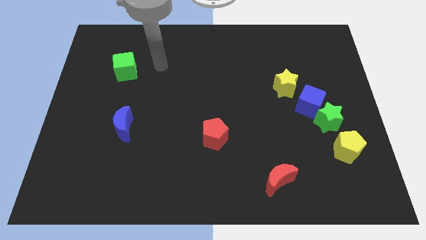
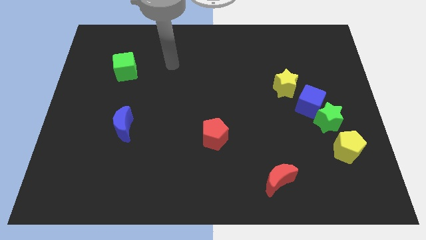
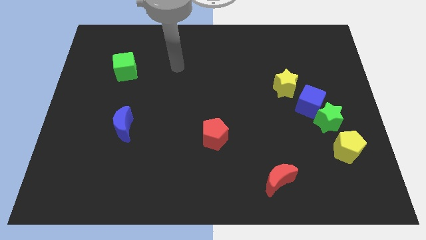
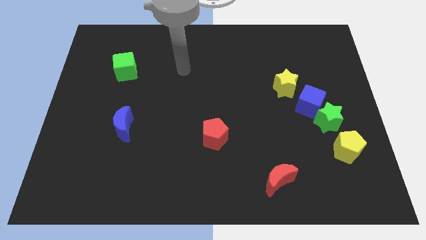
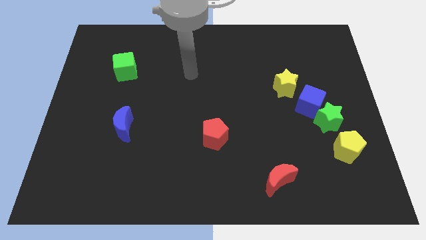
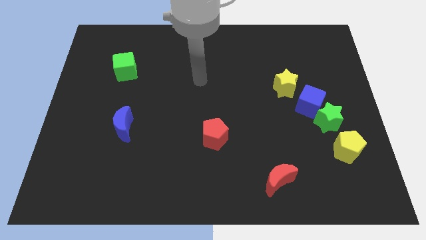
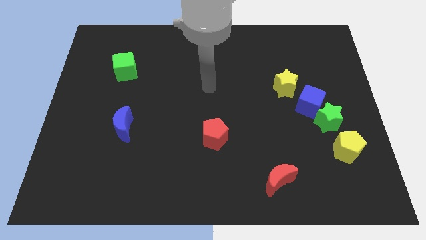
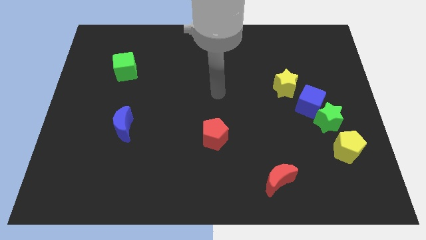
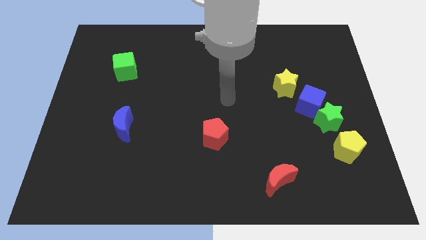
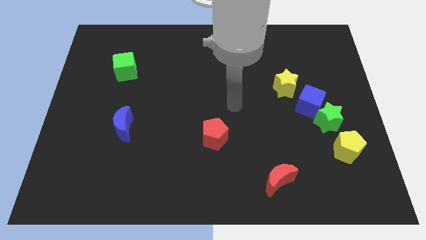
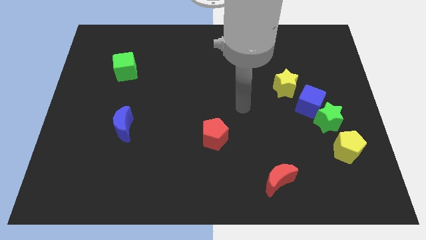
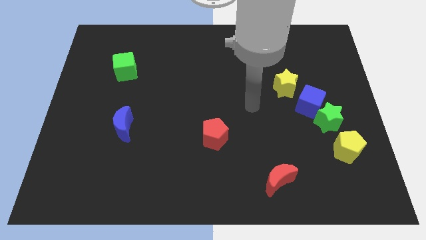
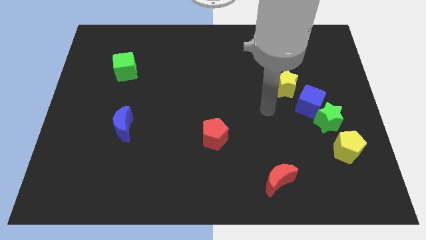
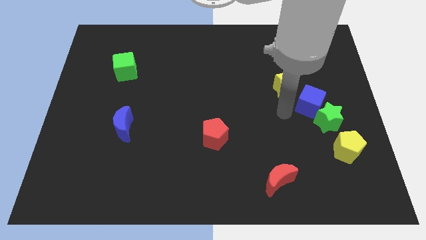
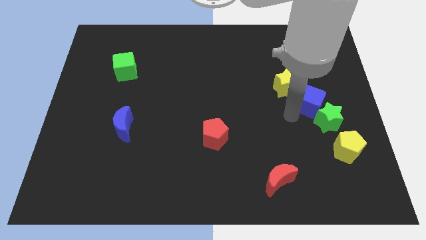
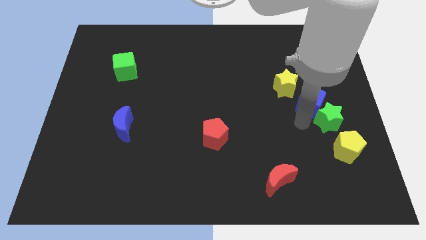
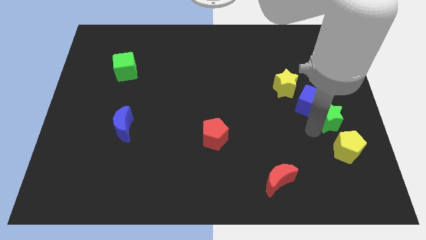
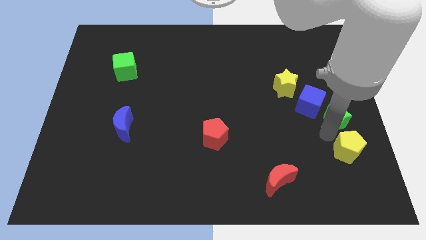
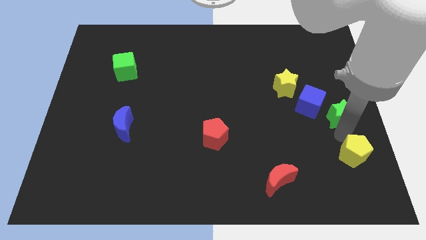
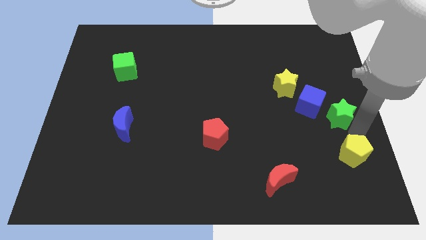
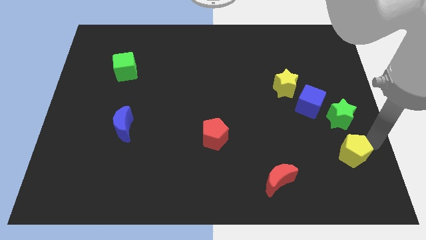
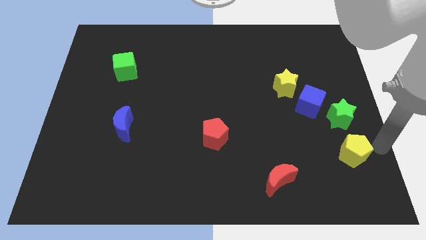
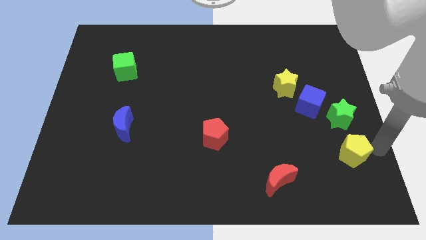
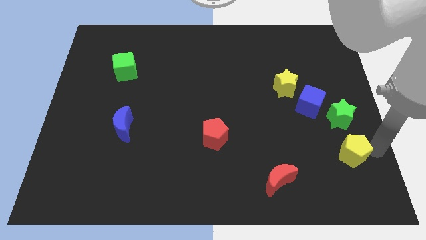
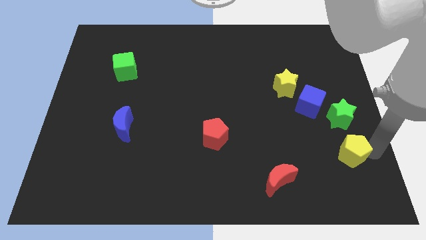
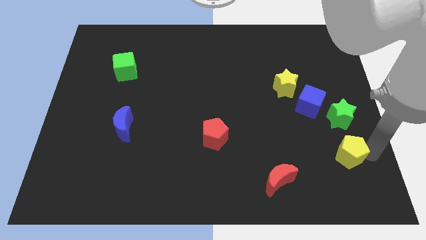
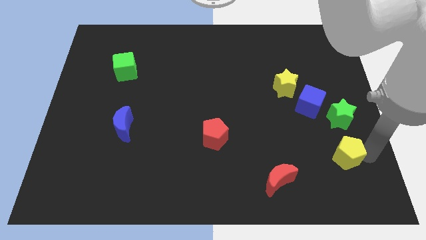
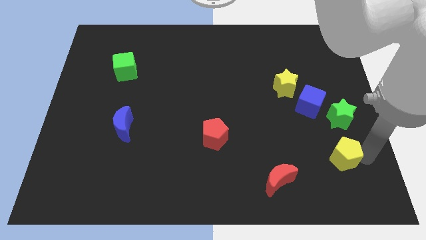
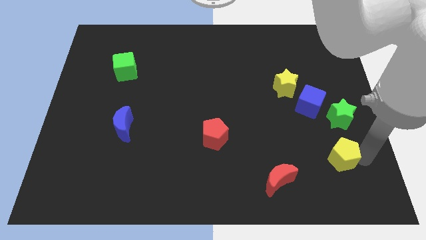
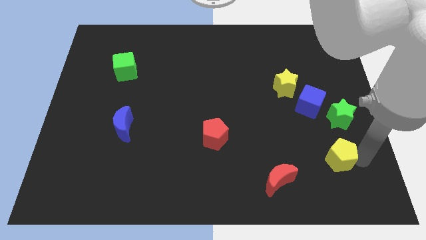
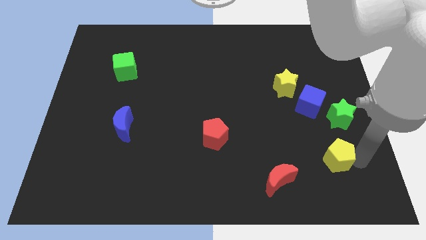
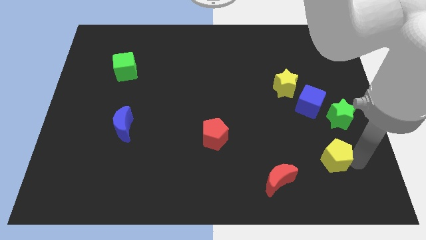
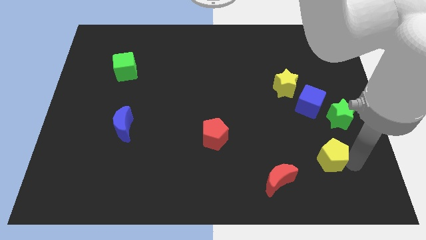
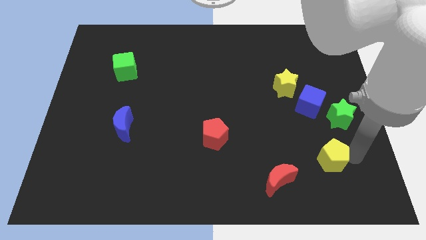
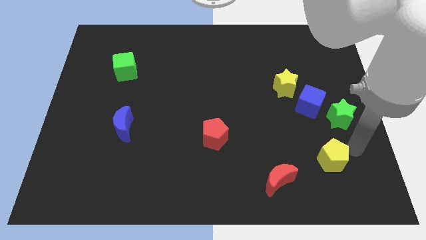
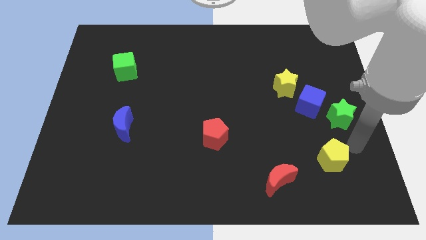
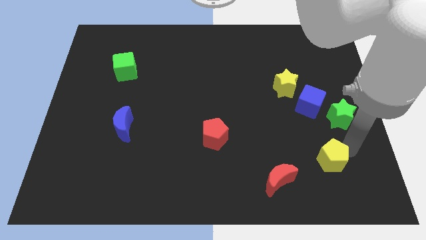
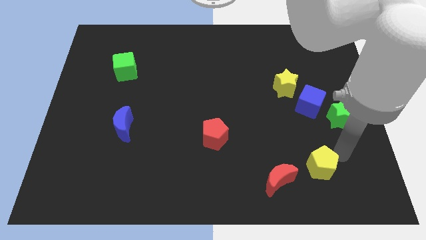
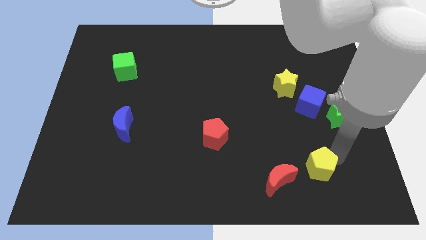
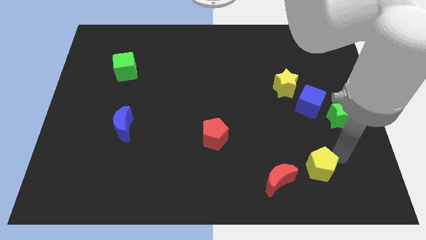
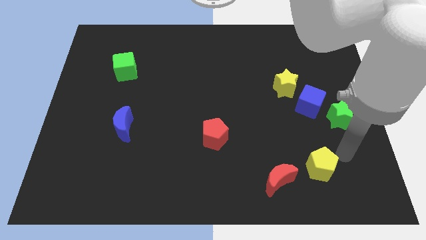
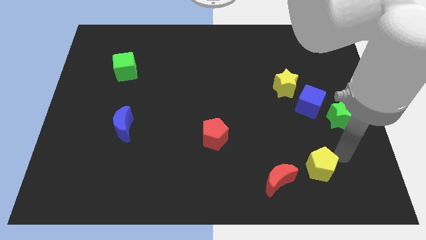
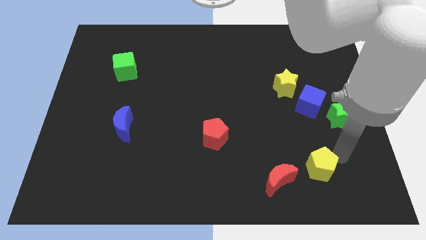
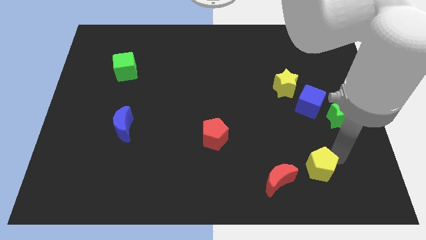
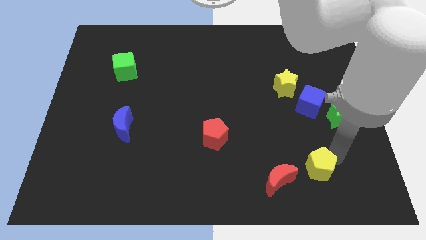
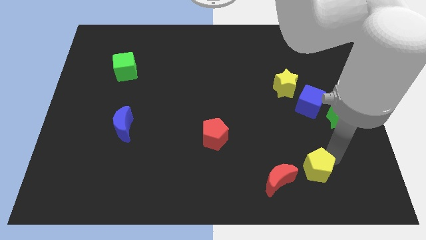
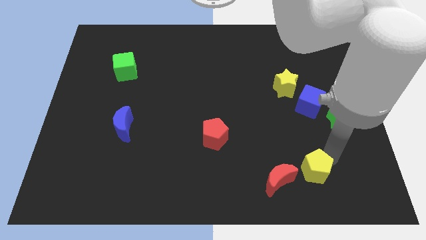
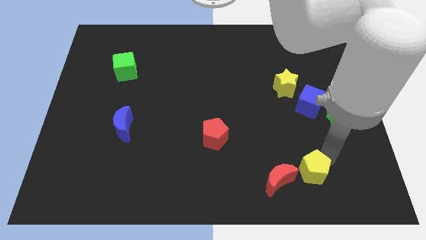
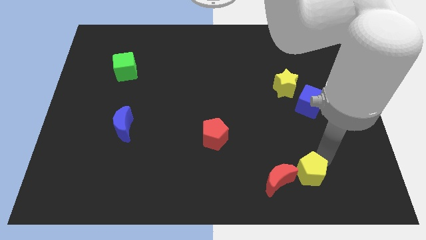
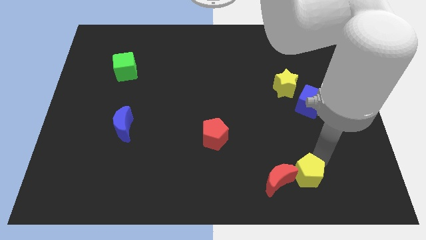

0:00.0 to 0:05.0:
move the yellow pentagon close to the red moon

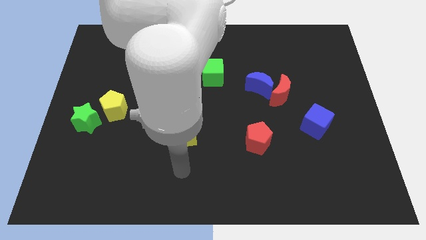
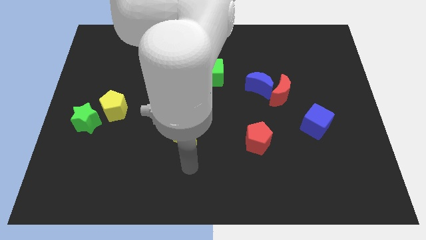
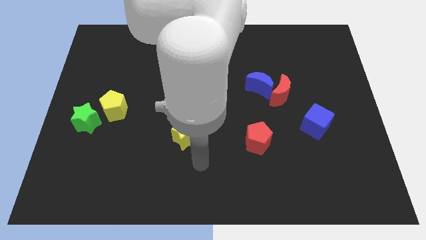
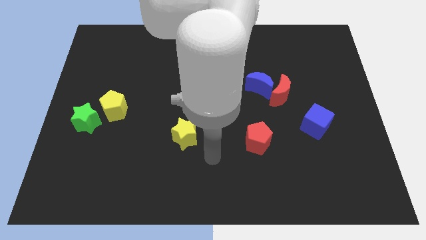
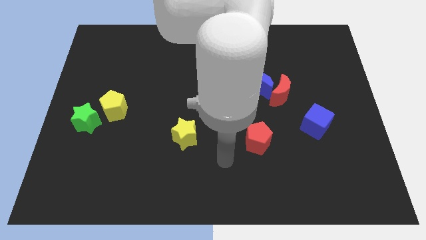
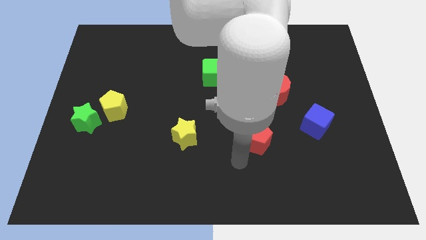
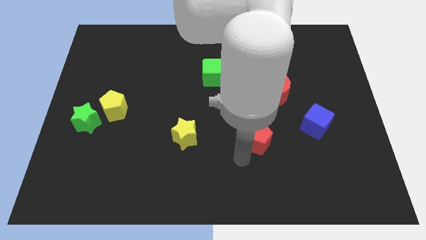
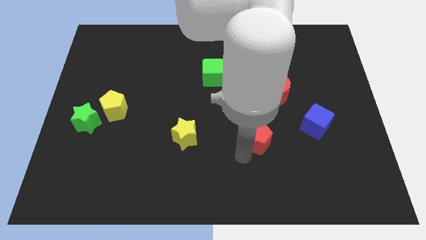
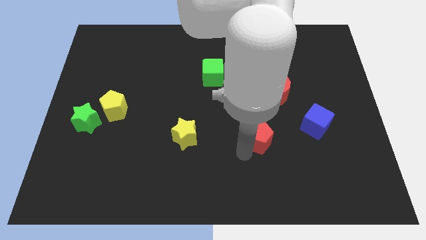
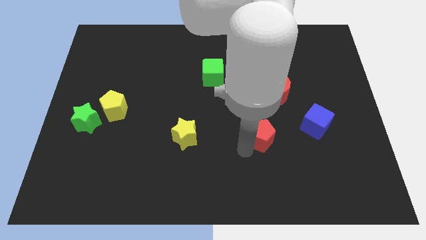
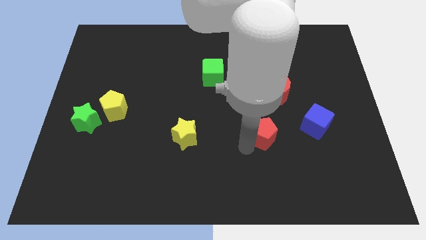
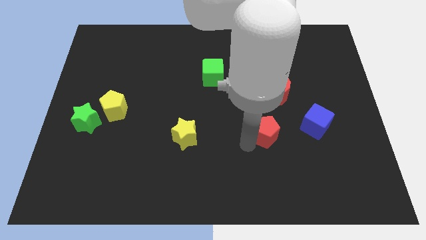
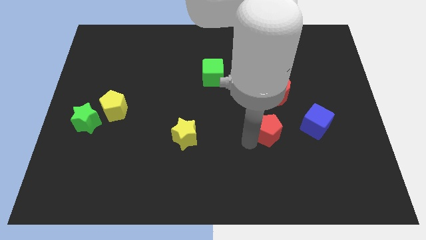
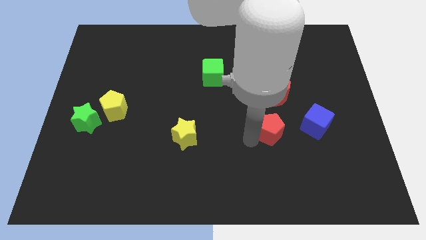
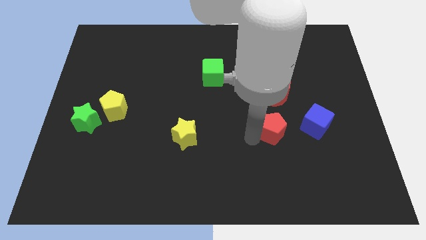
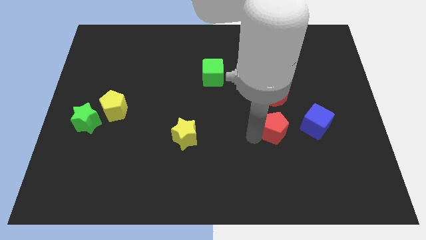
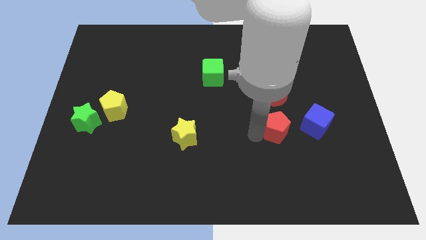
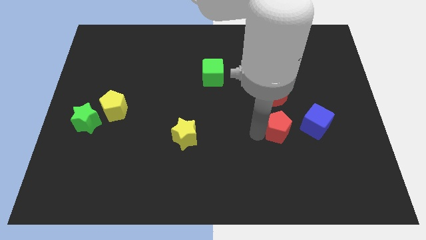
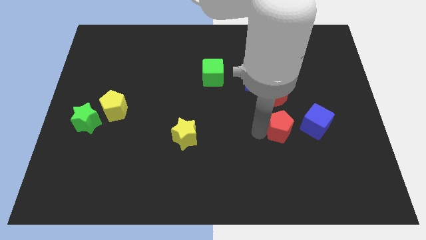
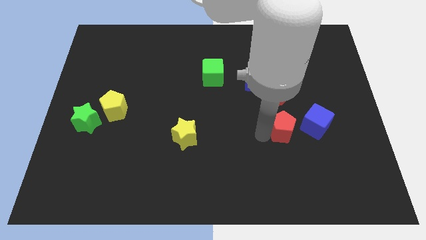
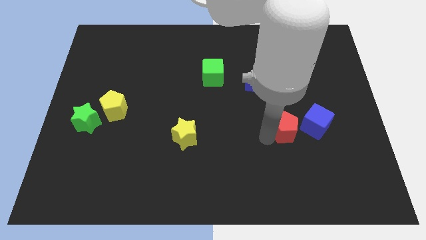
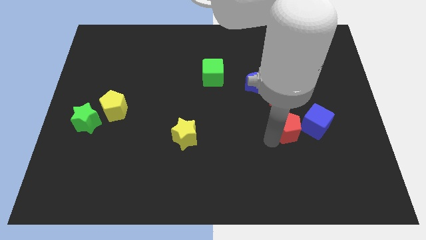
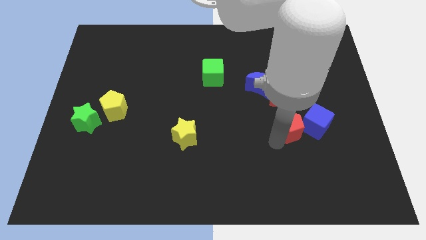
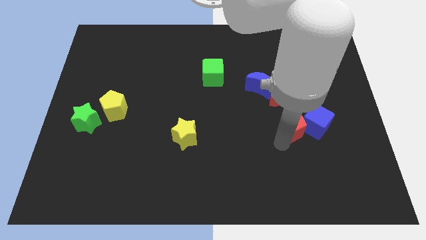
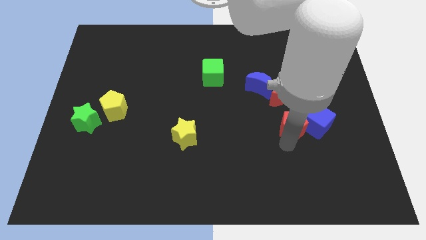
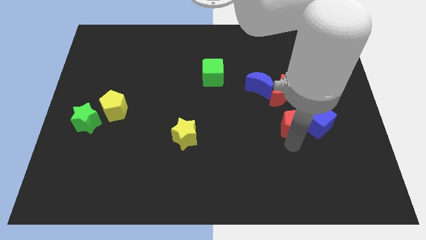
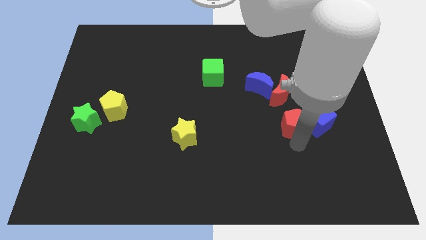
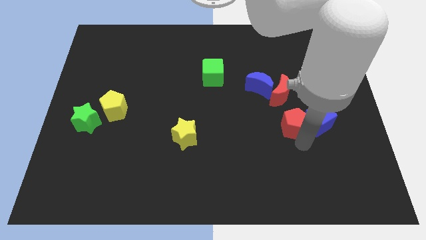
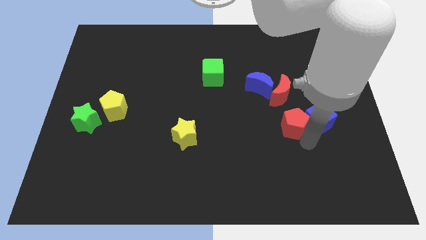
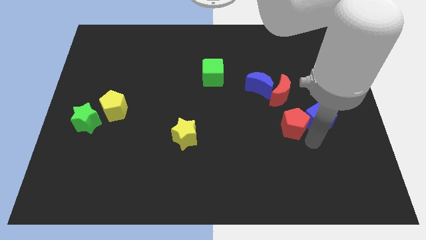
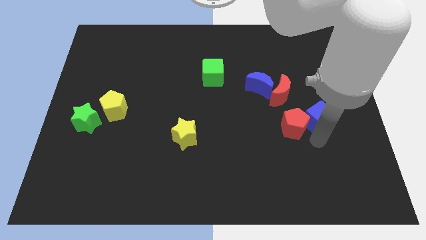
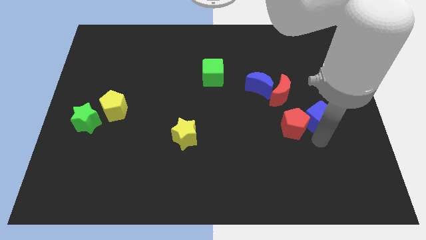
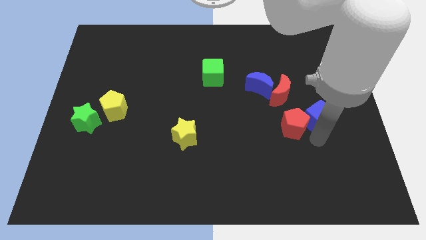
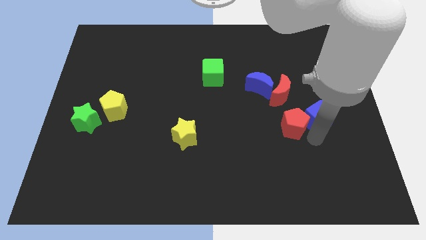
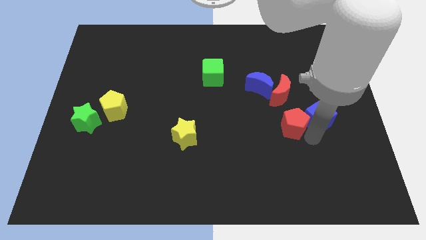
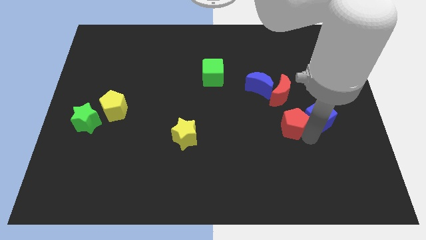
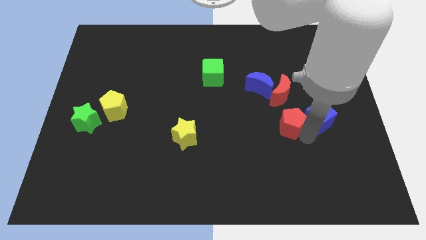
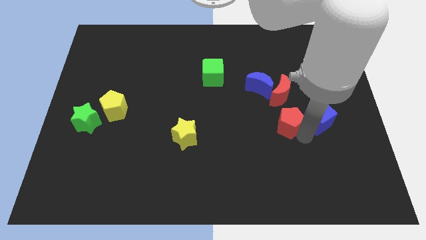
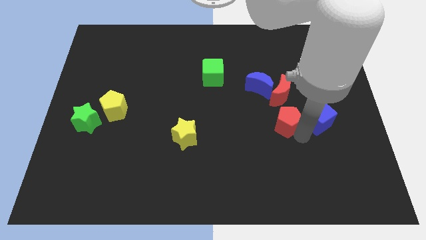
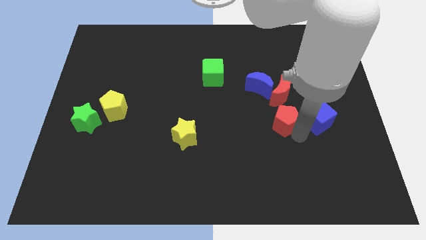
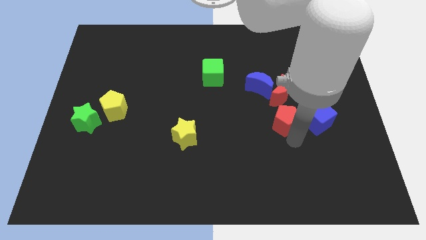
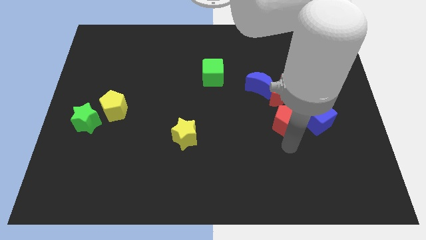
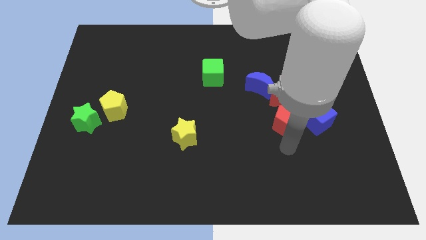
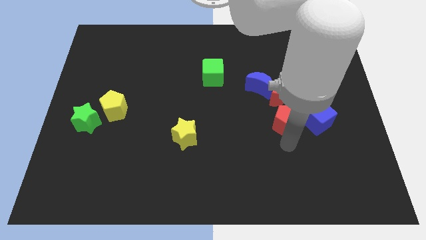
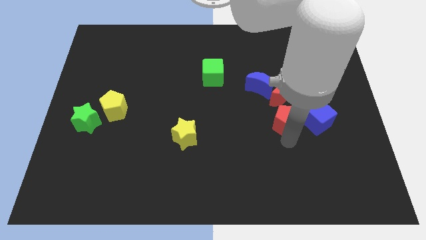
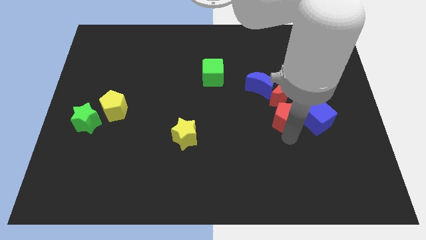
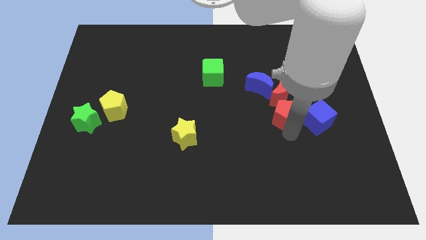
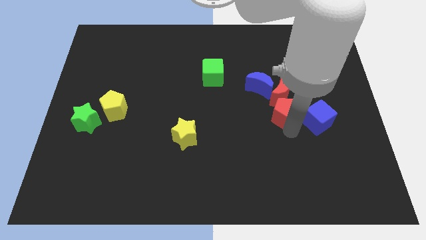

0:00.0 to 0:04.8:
put the red pentagon to the red moon
